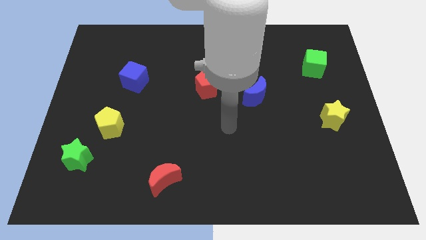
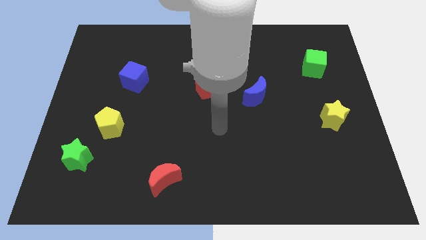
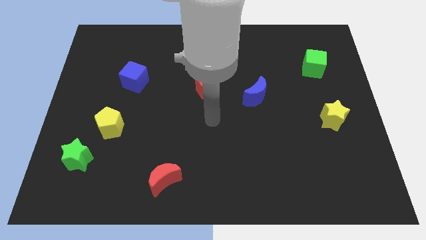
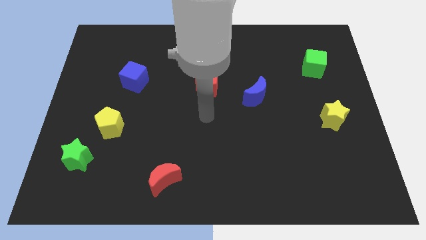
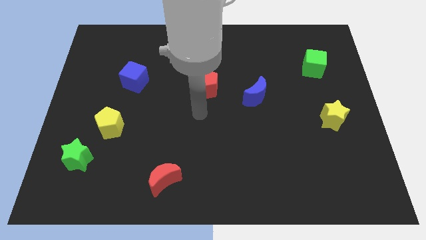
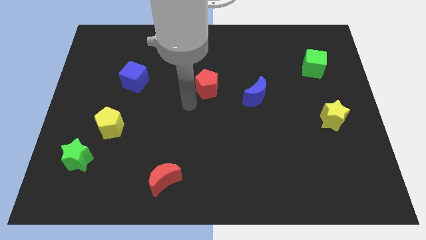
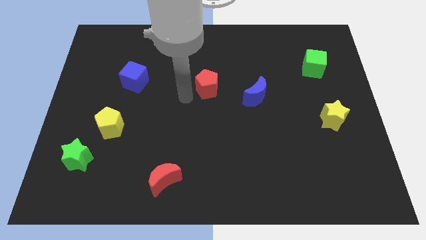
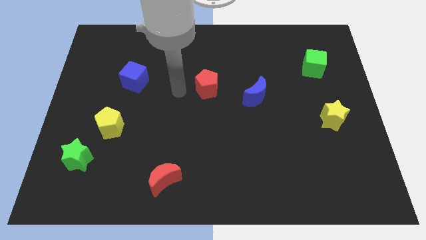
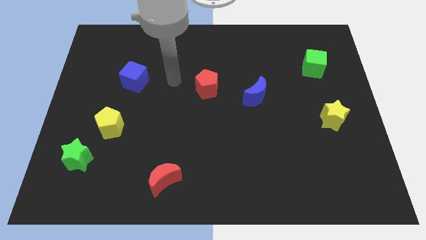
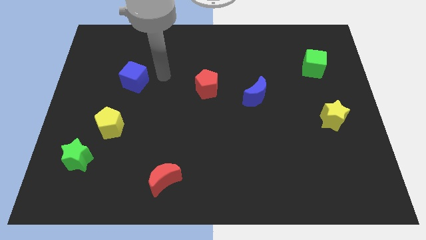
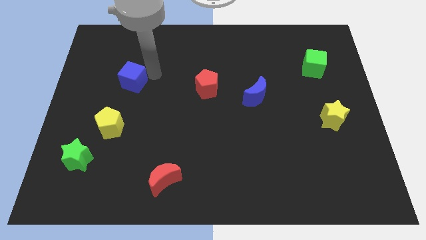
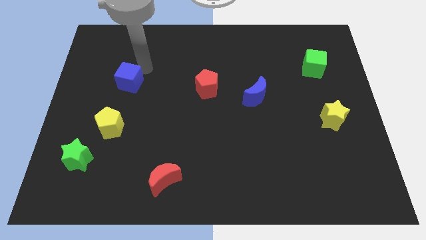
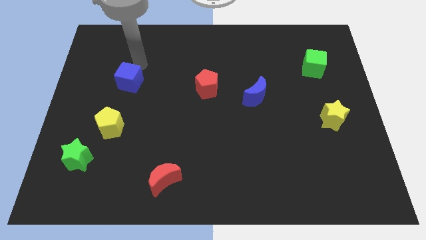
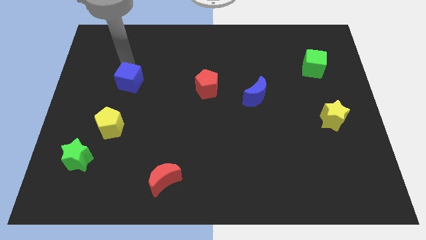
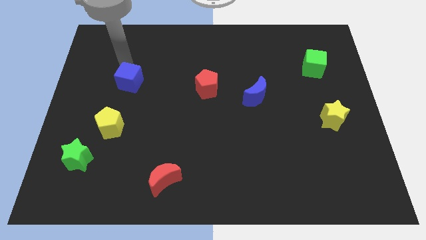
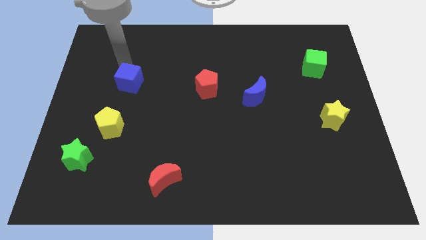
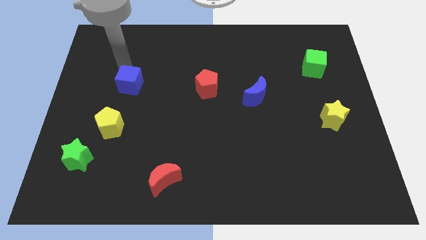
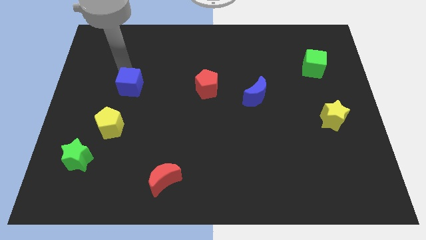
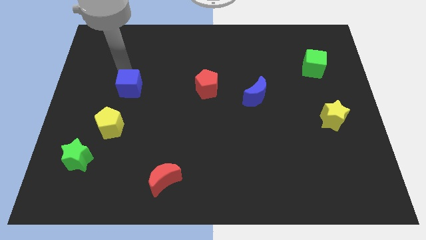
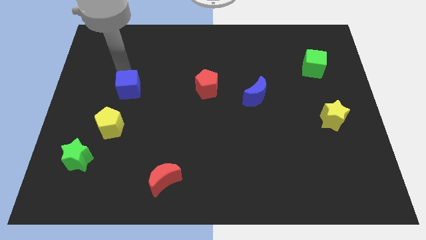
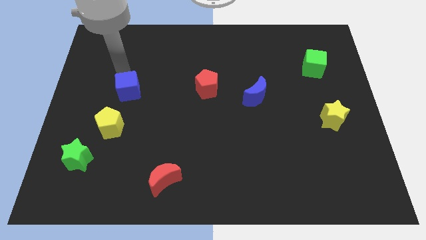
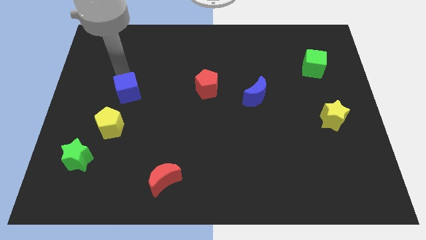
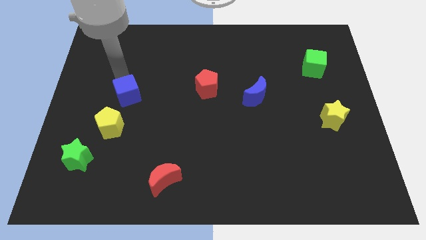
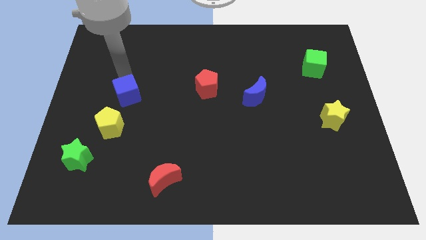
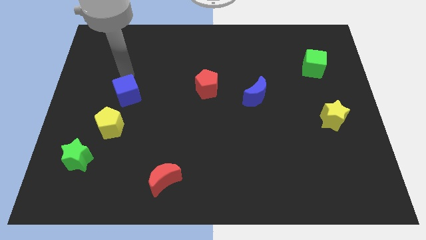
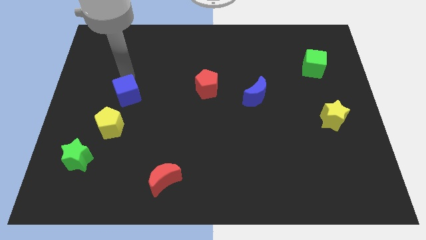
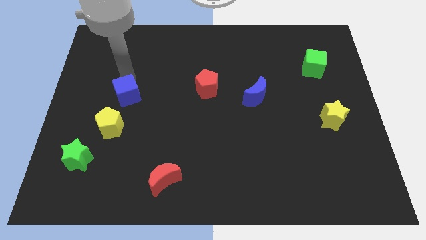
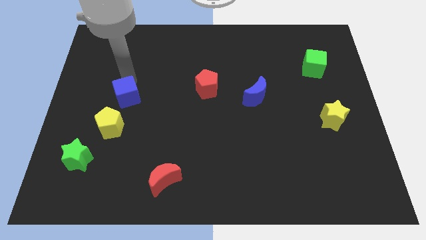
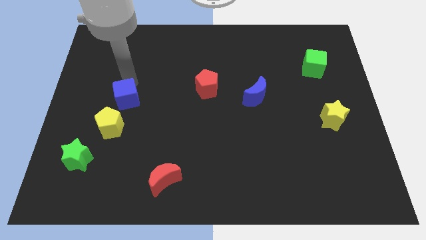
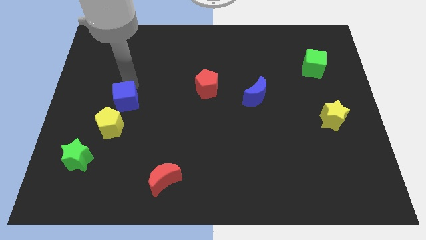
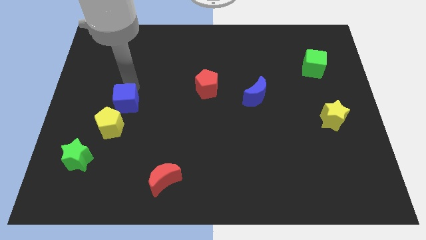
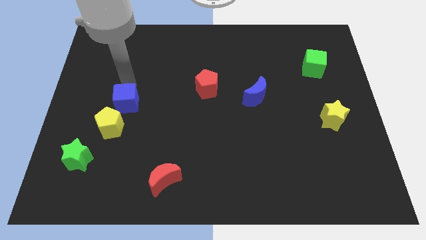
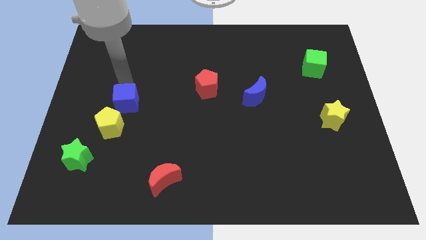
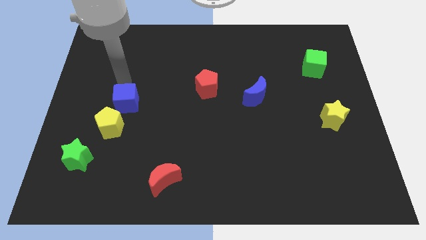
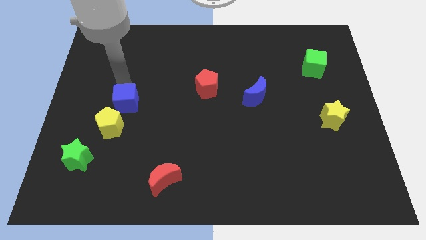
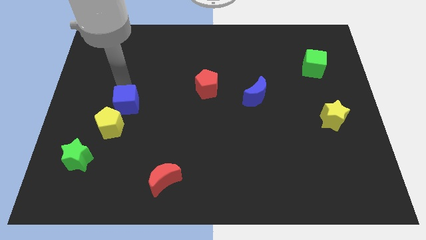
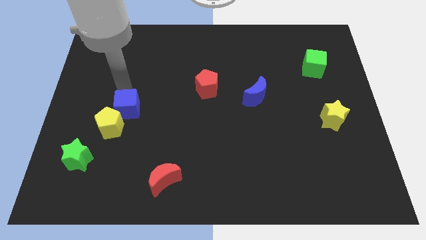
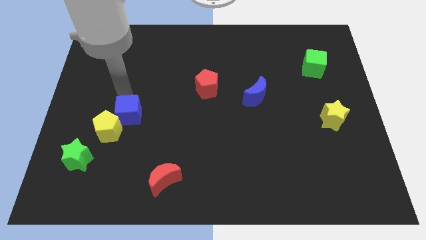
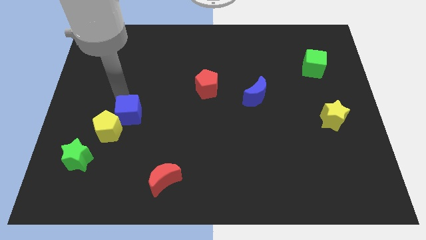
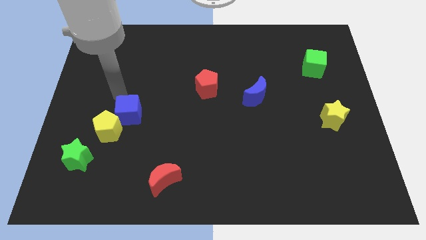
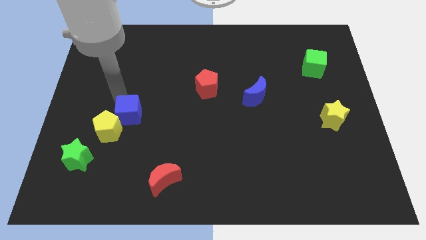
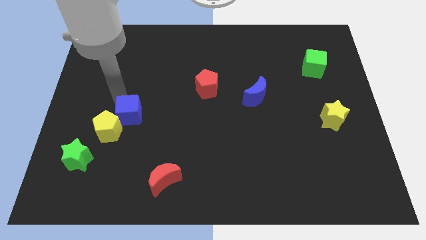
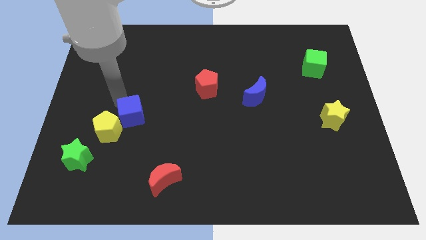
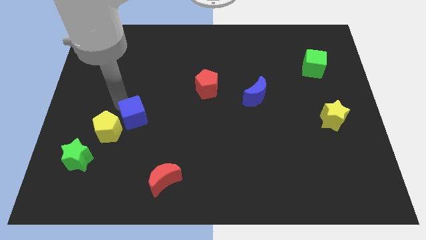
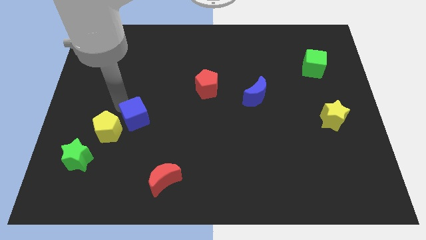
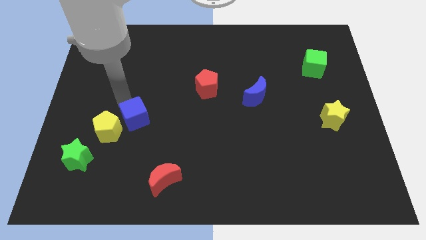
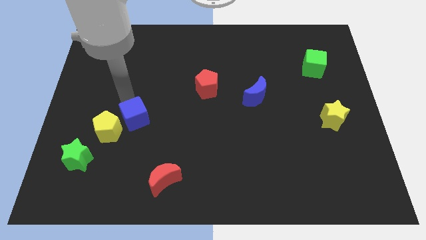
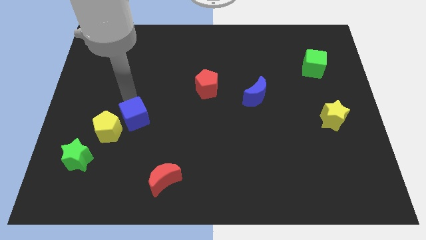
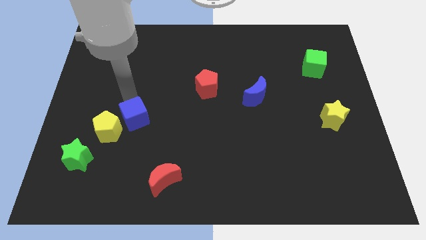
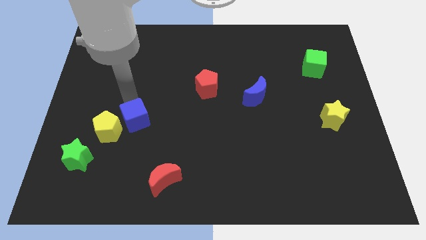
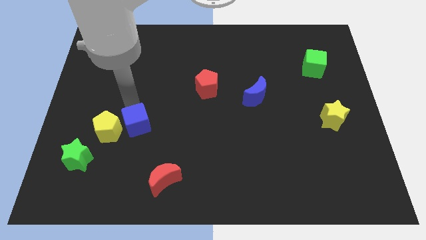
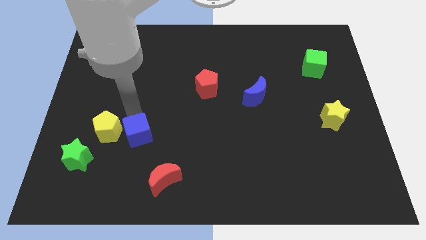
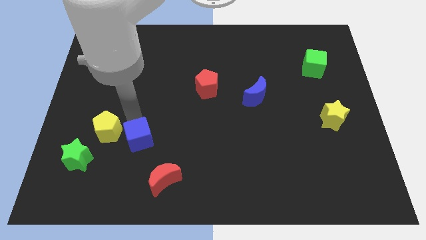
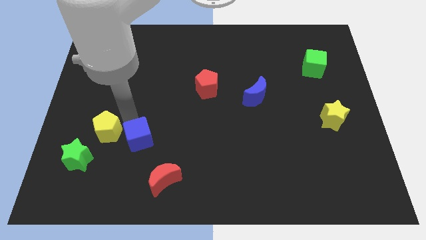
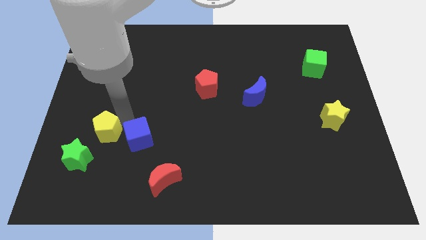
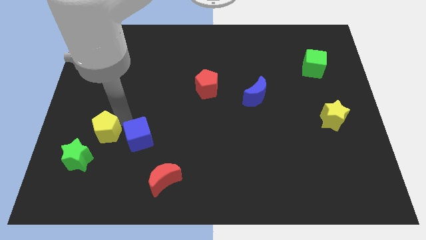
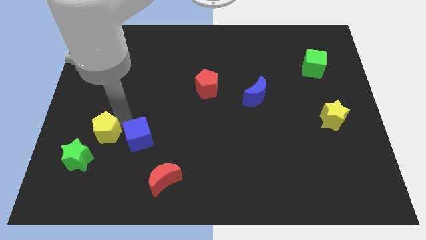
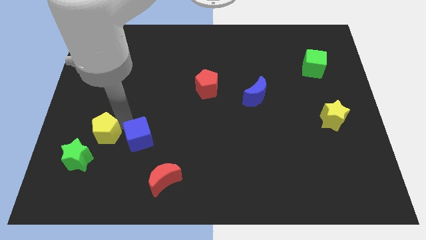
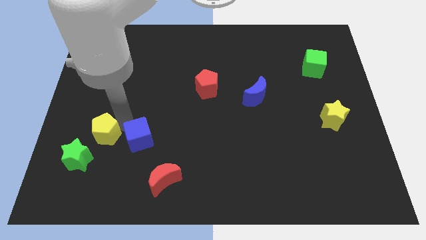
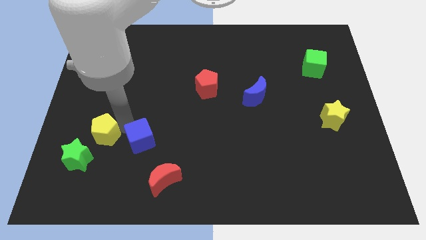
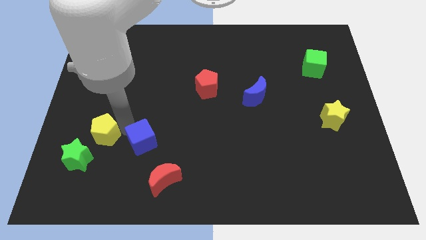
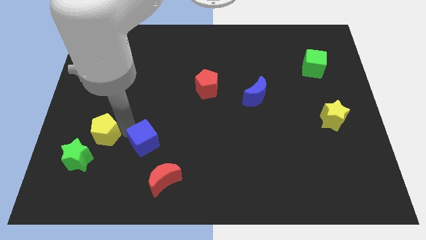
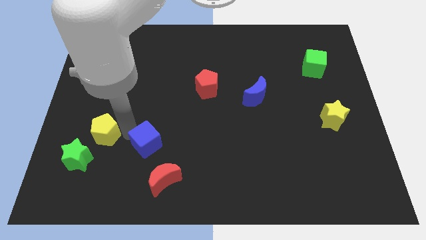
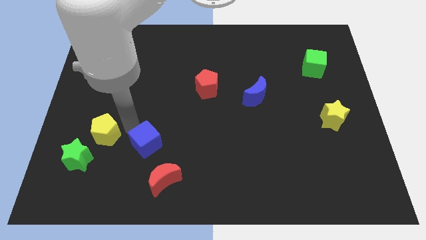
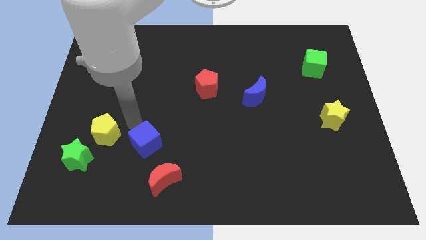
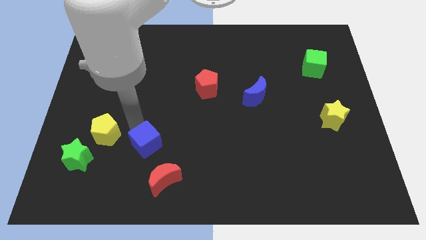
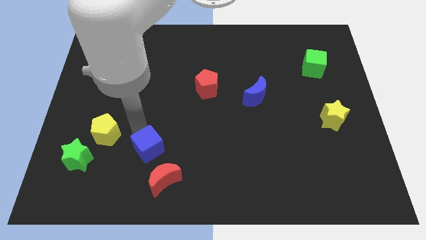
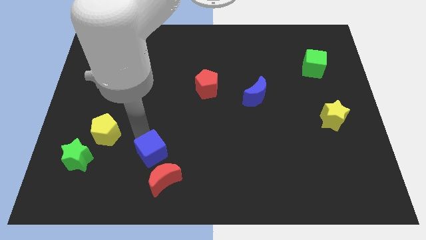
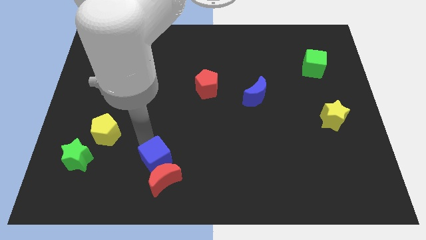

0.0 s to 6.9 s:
slide the blue cube towards the red moon
